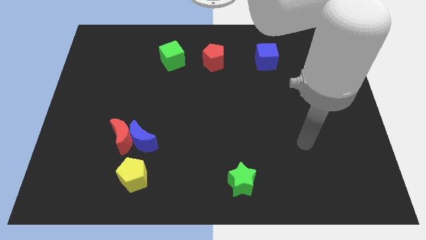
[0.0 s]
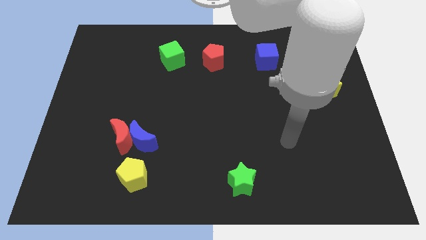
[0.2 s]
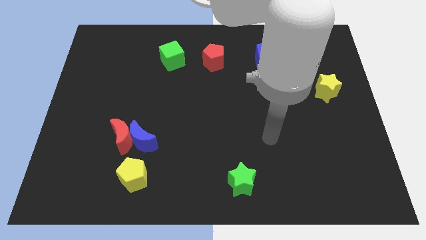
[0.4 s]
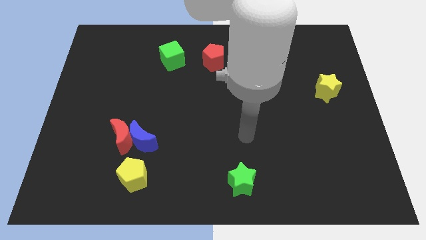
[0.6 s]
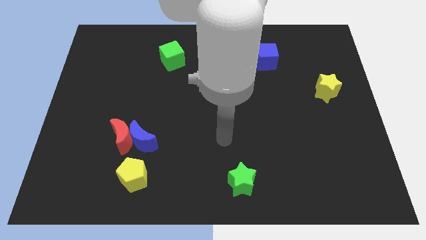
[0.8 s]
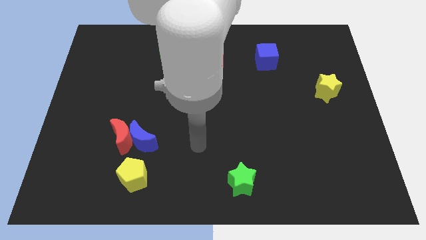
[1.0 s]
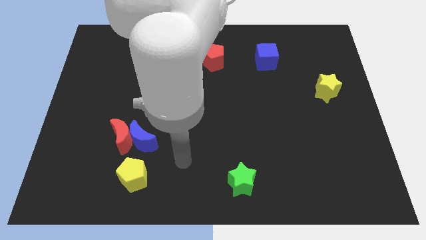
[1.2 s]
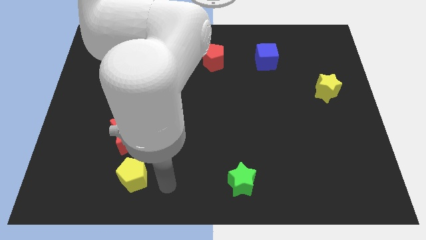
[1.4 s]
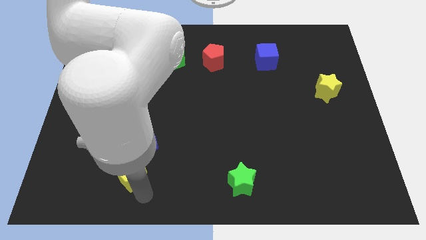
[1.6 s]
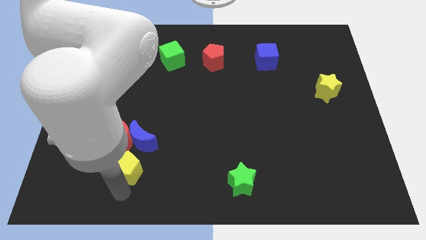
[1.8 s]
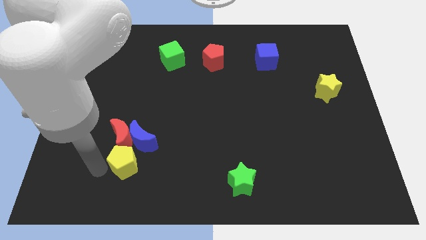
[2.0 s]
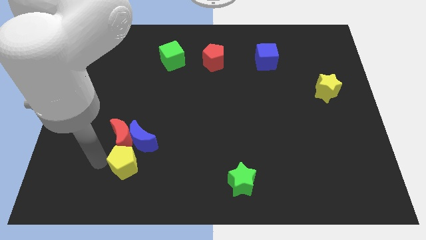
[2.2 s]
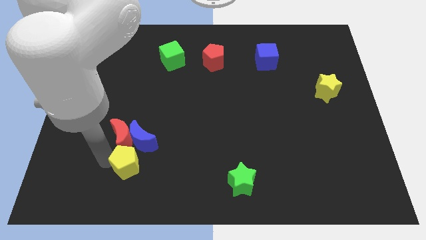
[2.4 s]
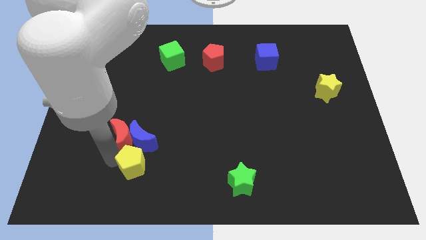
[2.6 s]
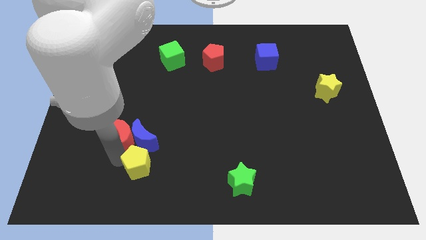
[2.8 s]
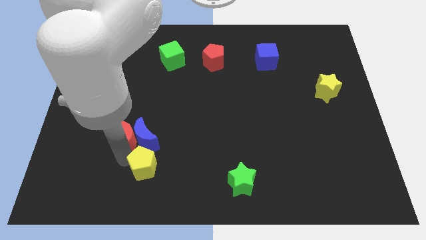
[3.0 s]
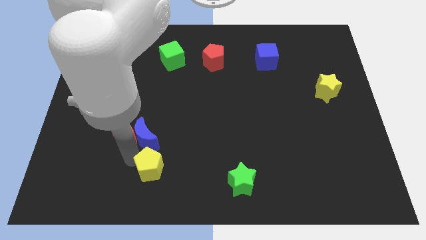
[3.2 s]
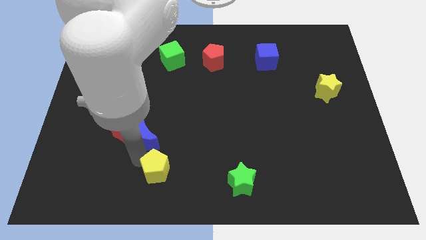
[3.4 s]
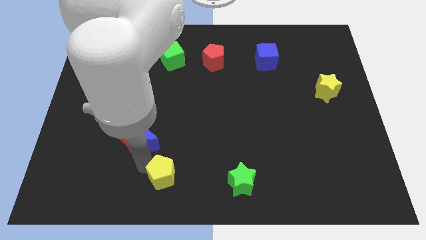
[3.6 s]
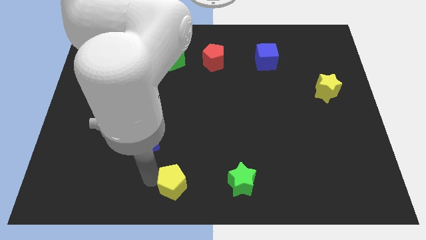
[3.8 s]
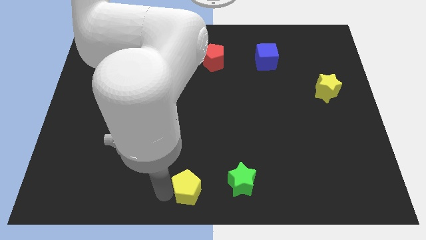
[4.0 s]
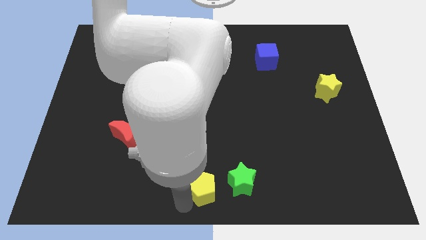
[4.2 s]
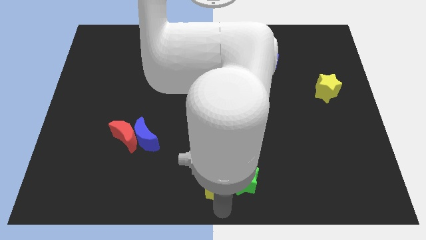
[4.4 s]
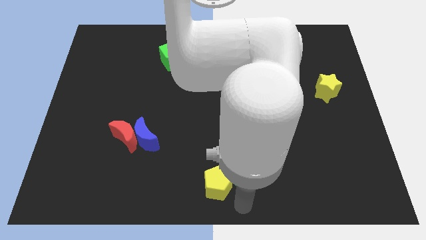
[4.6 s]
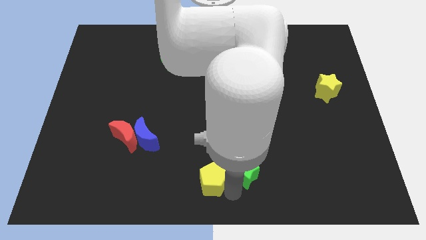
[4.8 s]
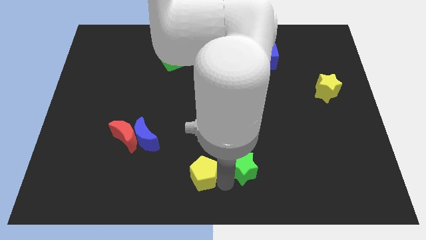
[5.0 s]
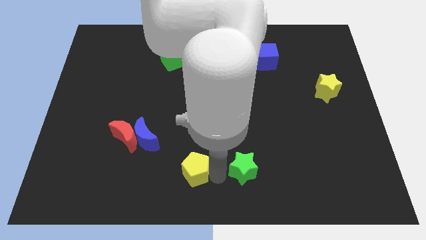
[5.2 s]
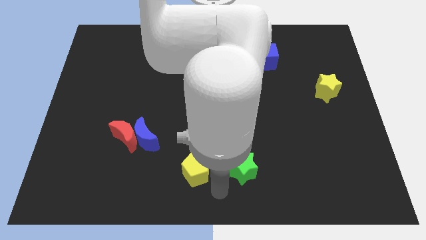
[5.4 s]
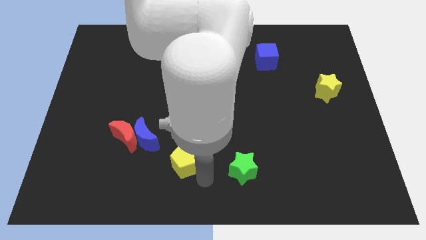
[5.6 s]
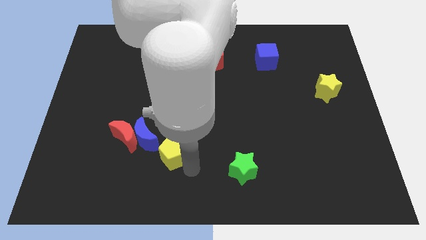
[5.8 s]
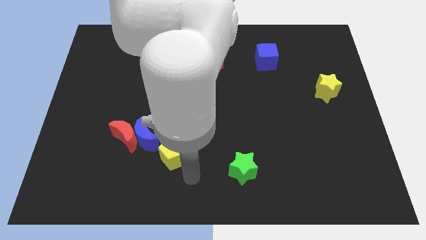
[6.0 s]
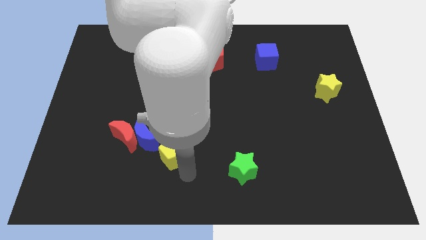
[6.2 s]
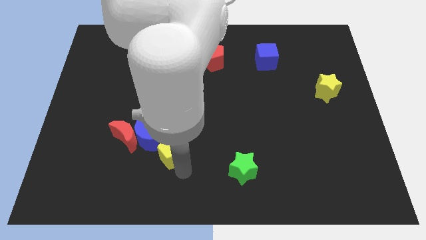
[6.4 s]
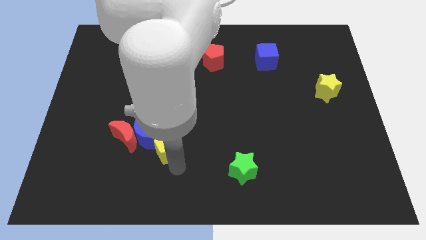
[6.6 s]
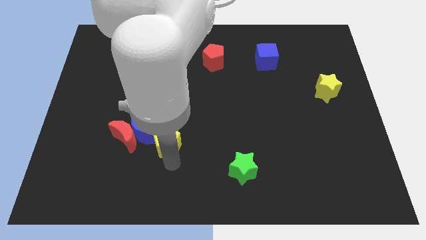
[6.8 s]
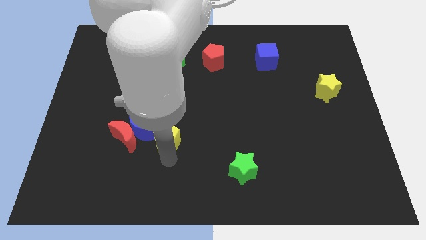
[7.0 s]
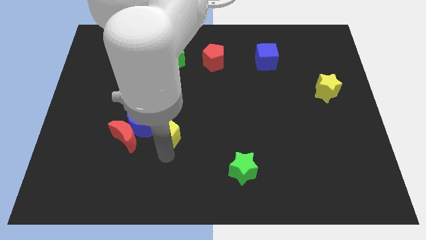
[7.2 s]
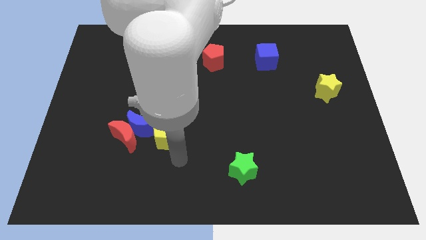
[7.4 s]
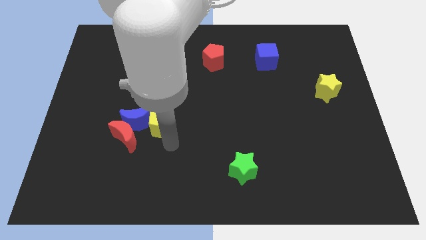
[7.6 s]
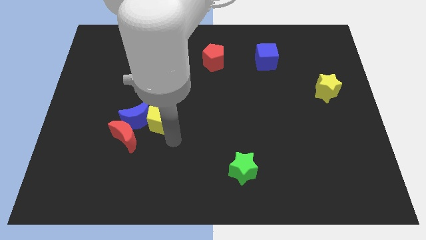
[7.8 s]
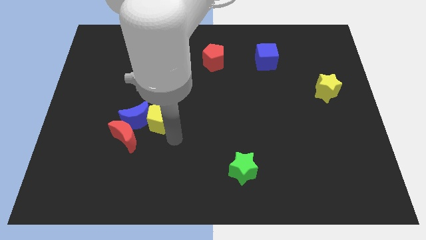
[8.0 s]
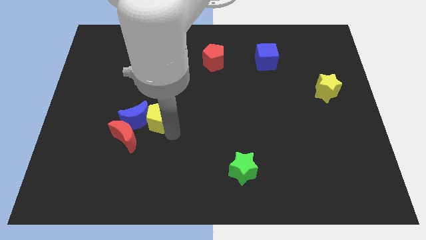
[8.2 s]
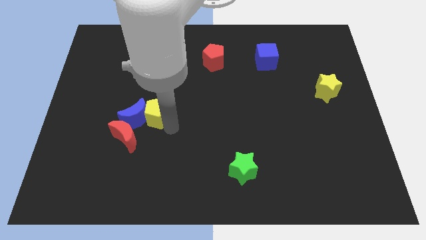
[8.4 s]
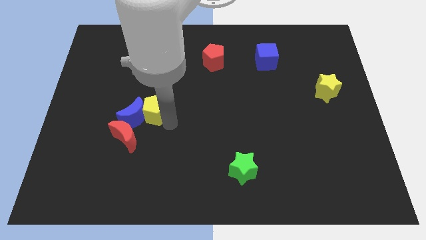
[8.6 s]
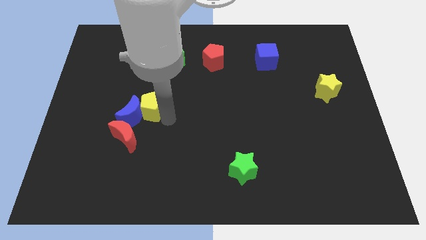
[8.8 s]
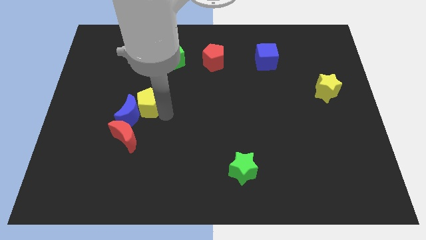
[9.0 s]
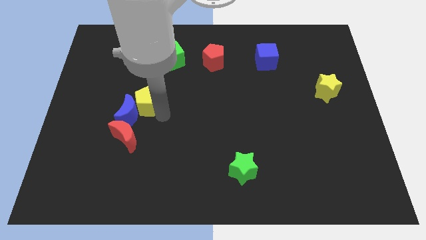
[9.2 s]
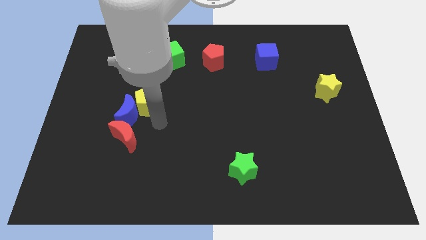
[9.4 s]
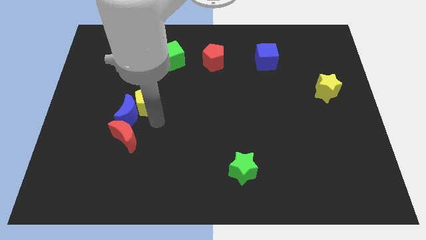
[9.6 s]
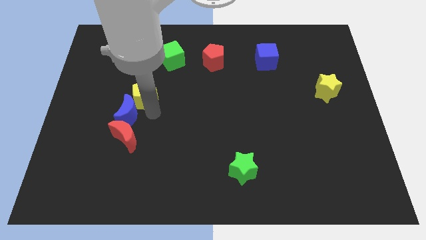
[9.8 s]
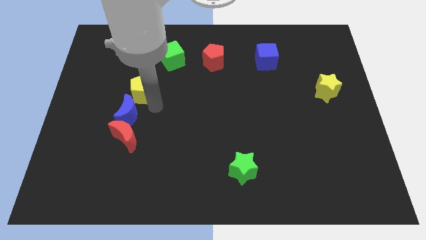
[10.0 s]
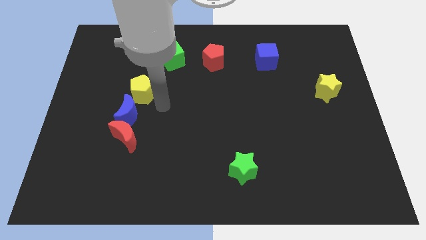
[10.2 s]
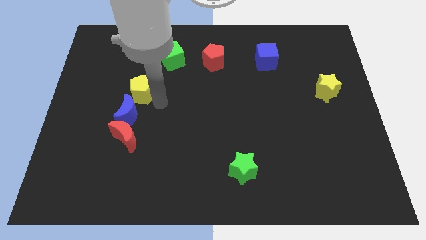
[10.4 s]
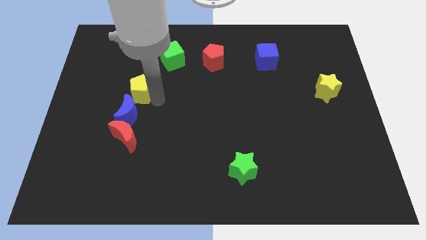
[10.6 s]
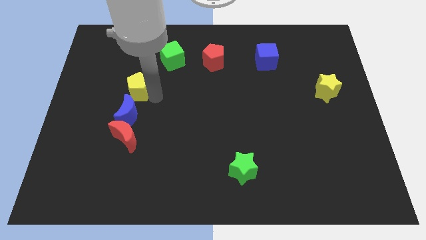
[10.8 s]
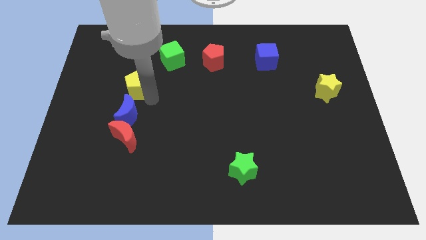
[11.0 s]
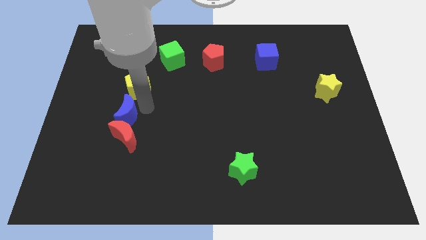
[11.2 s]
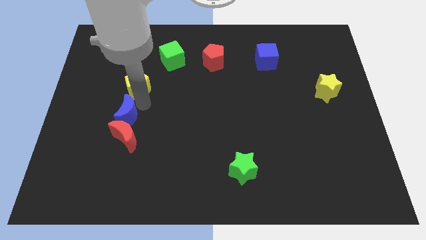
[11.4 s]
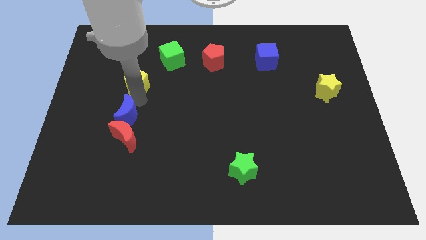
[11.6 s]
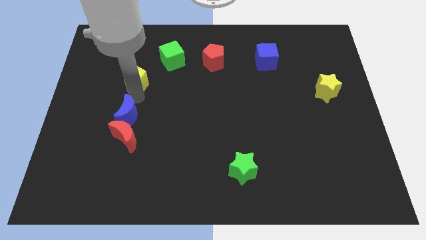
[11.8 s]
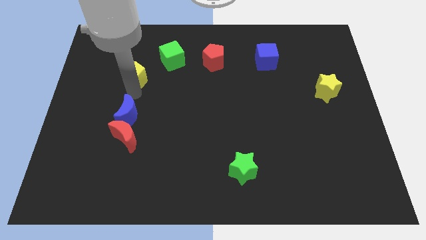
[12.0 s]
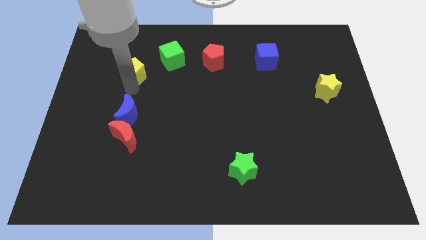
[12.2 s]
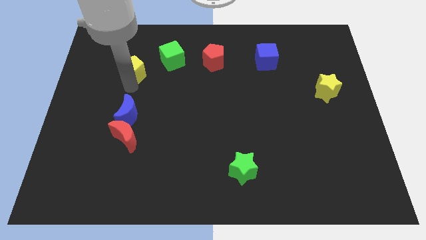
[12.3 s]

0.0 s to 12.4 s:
slide the yellow pentagon left of the green cube

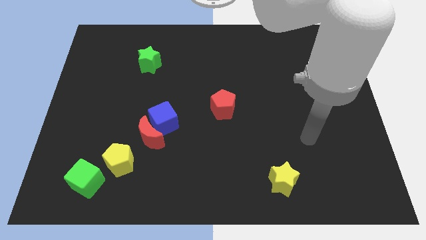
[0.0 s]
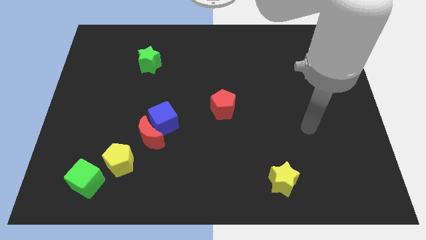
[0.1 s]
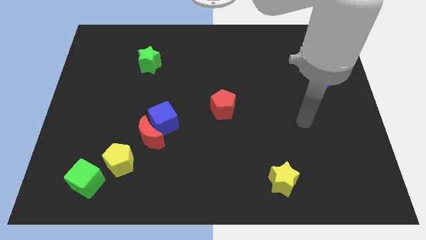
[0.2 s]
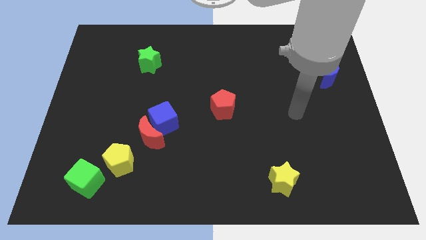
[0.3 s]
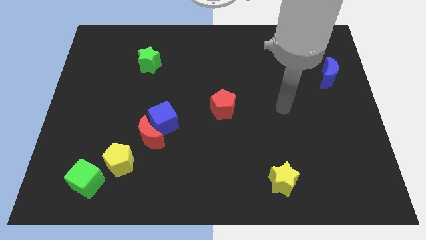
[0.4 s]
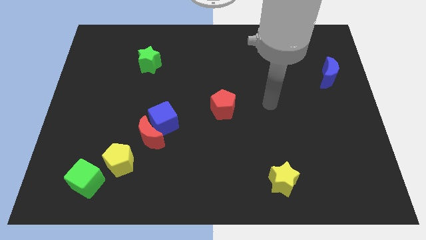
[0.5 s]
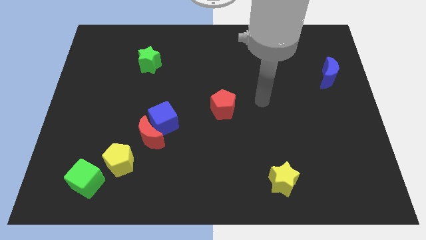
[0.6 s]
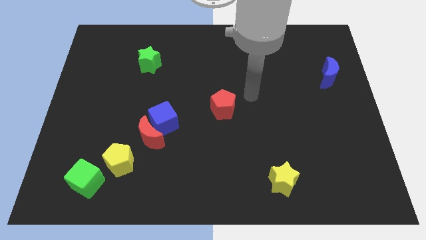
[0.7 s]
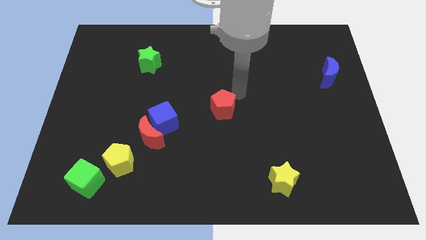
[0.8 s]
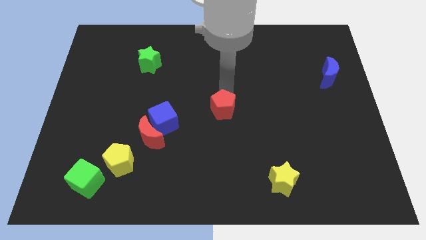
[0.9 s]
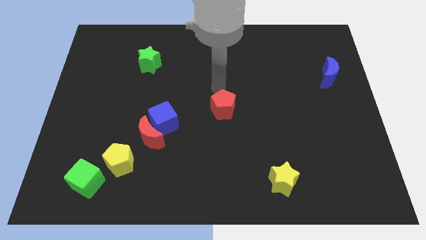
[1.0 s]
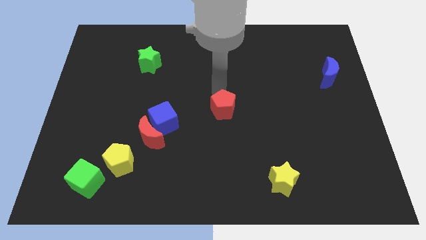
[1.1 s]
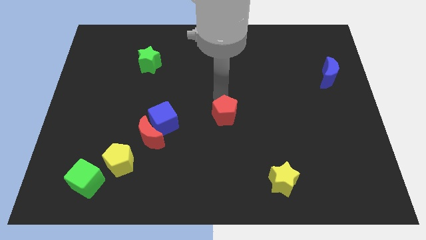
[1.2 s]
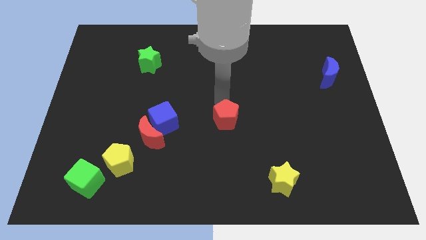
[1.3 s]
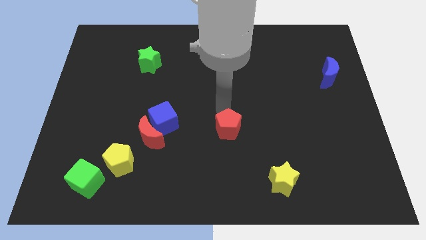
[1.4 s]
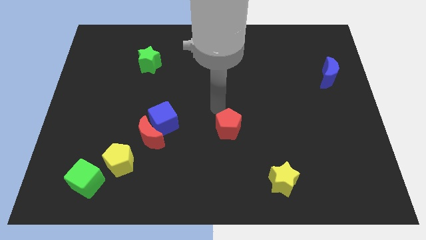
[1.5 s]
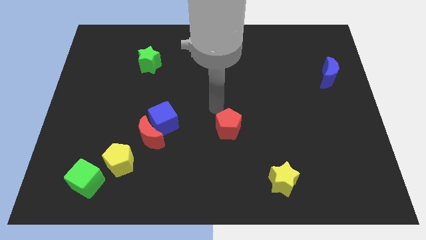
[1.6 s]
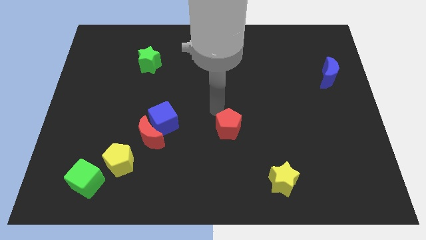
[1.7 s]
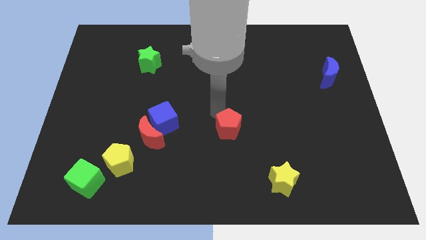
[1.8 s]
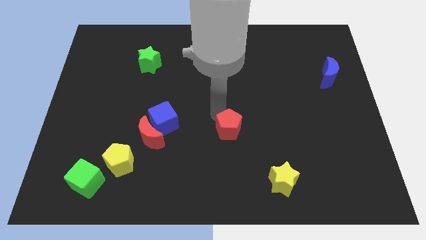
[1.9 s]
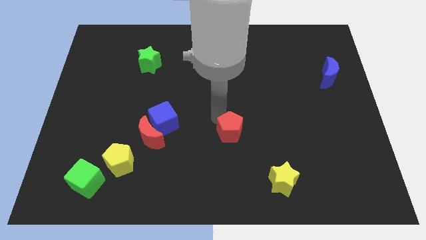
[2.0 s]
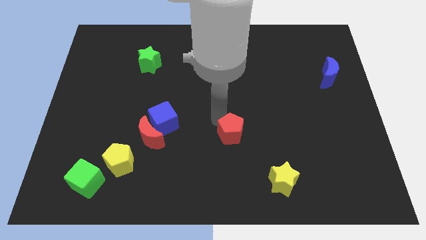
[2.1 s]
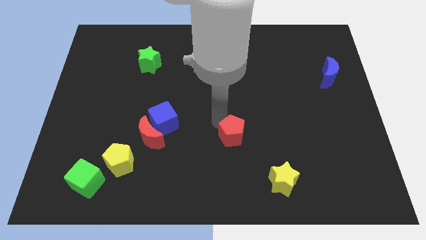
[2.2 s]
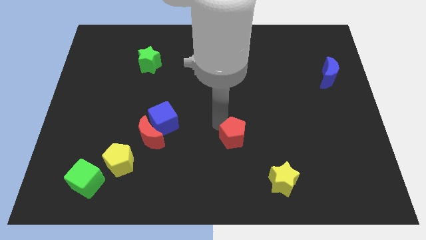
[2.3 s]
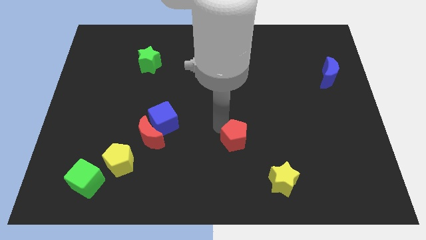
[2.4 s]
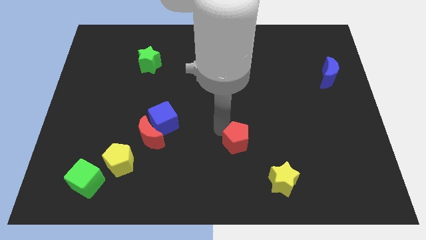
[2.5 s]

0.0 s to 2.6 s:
push the red pentagon to the top left of the yellow star
